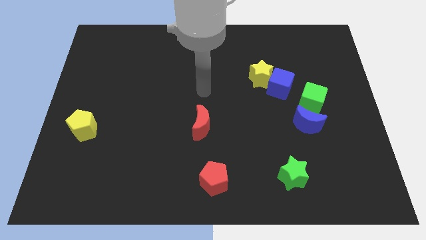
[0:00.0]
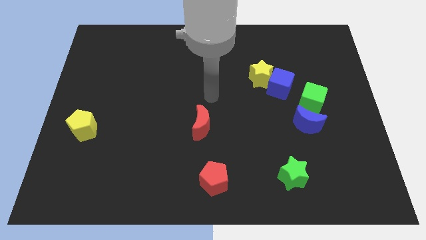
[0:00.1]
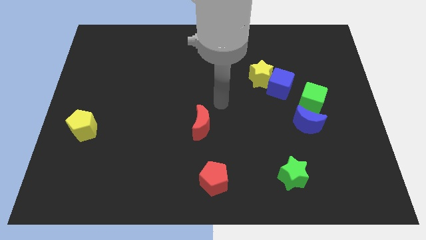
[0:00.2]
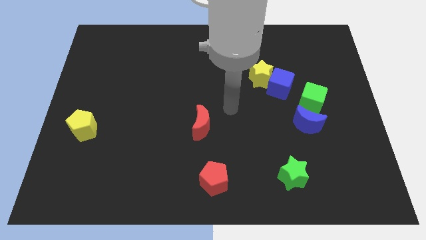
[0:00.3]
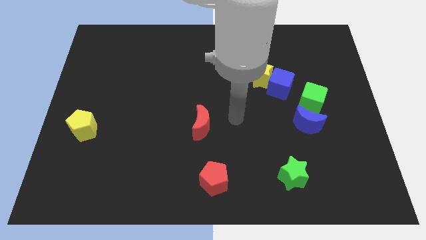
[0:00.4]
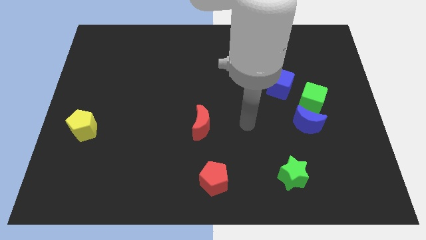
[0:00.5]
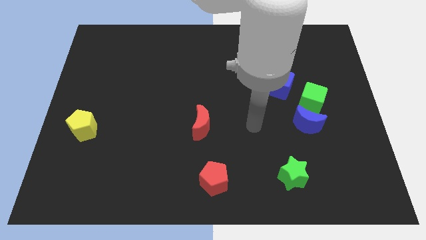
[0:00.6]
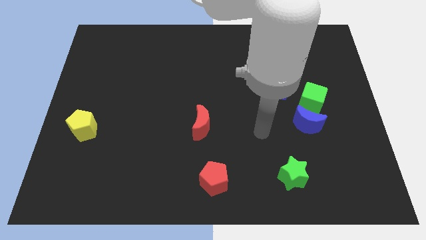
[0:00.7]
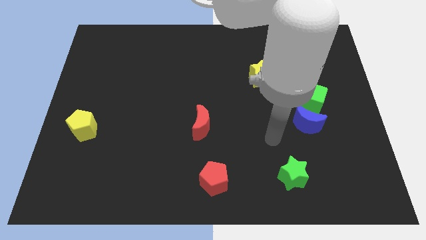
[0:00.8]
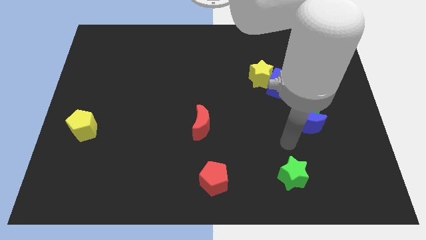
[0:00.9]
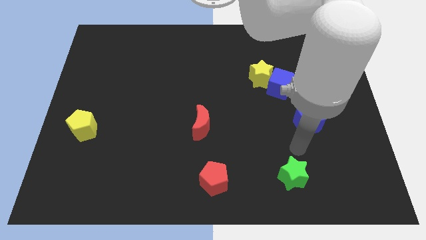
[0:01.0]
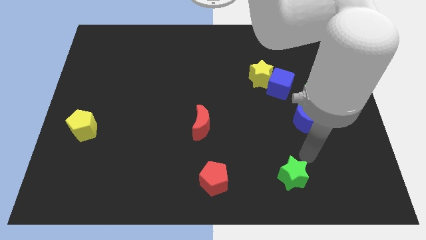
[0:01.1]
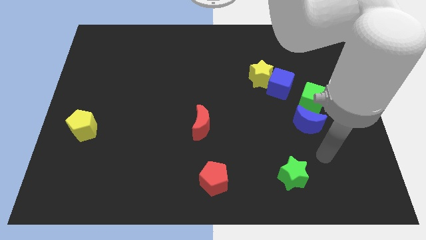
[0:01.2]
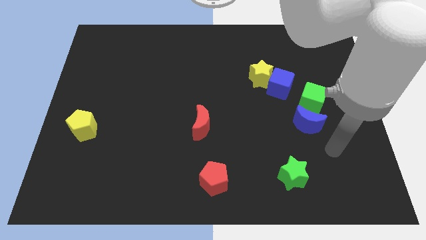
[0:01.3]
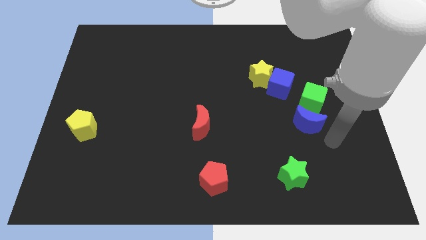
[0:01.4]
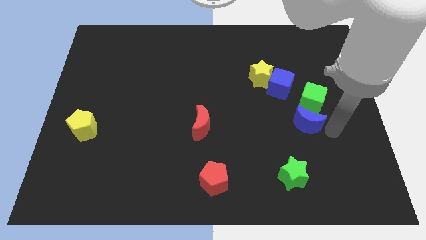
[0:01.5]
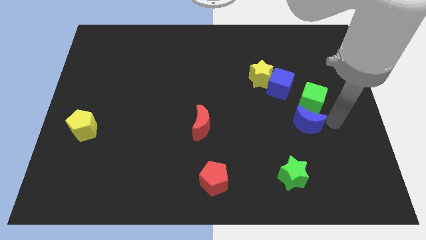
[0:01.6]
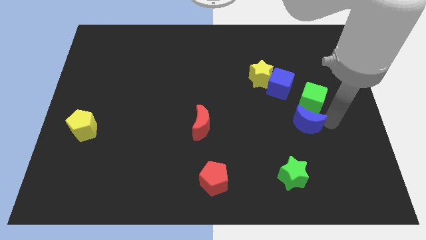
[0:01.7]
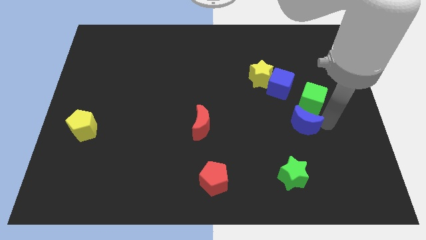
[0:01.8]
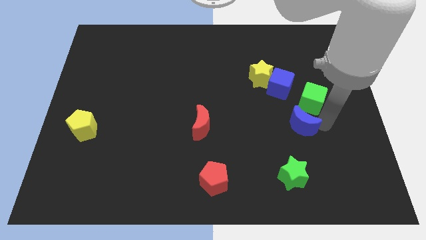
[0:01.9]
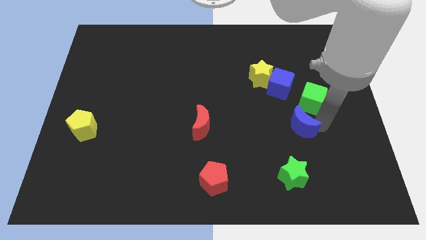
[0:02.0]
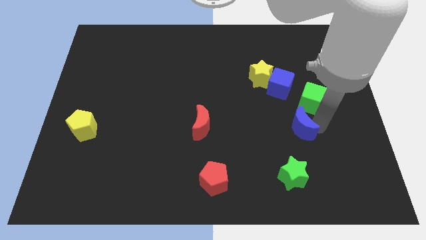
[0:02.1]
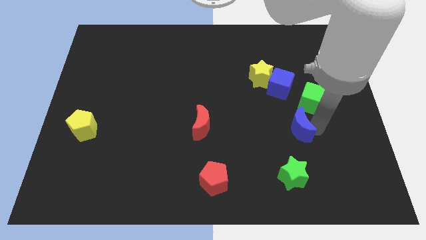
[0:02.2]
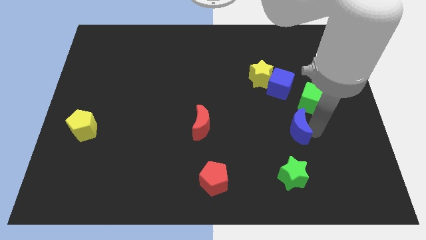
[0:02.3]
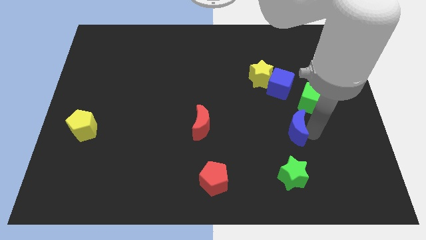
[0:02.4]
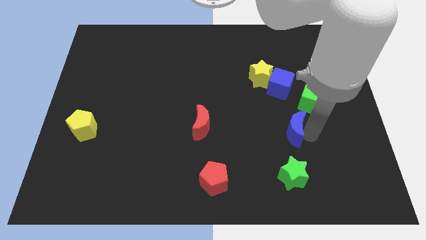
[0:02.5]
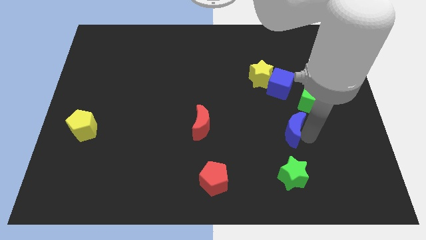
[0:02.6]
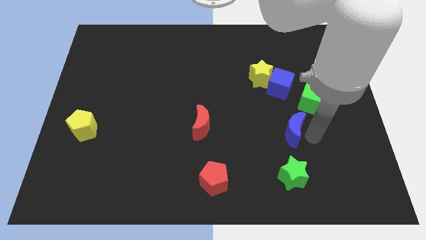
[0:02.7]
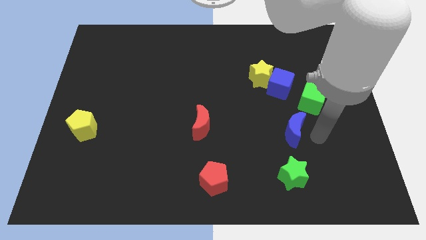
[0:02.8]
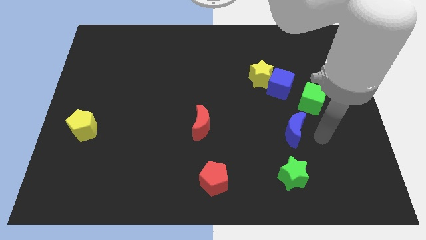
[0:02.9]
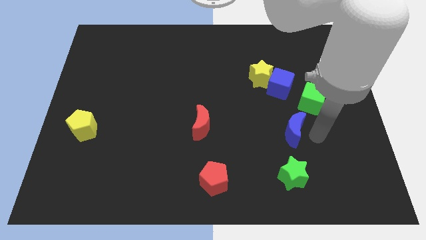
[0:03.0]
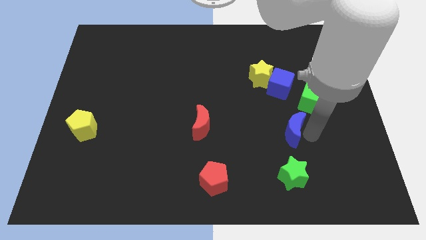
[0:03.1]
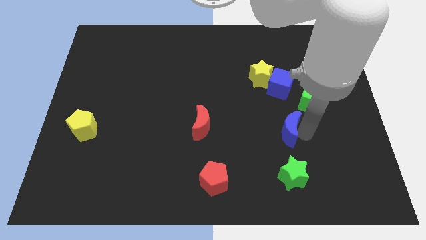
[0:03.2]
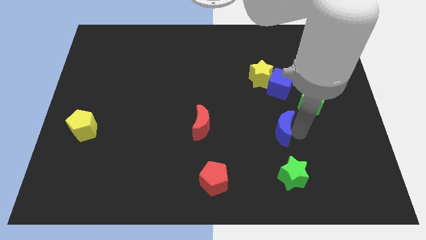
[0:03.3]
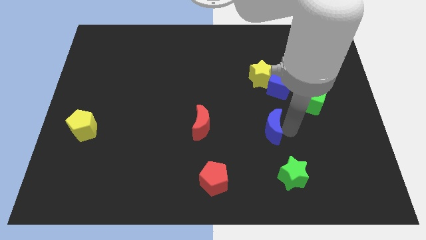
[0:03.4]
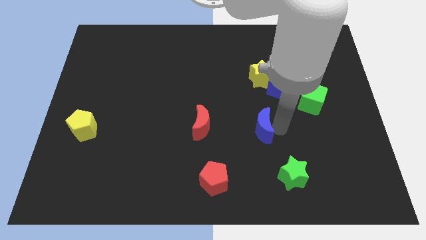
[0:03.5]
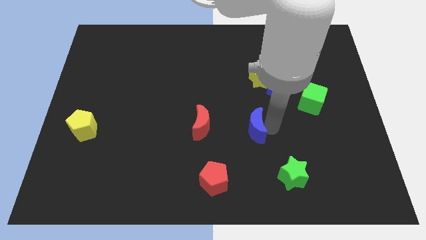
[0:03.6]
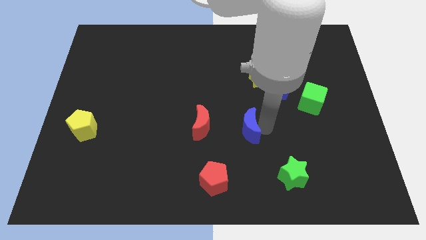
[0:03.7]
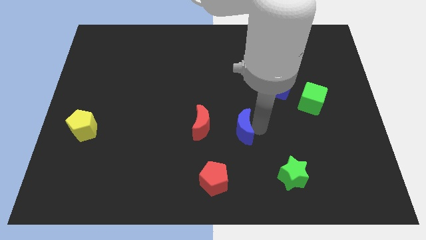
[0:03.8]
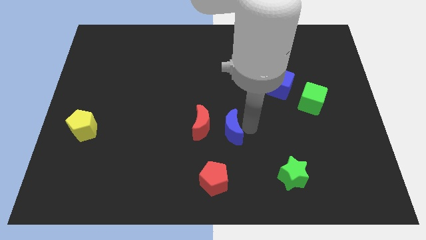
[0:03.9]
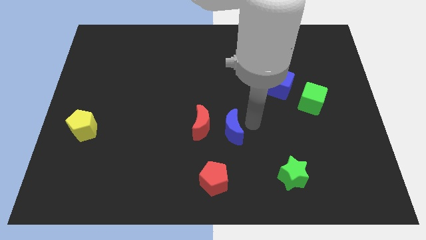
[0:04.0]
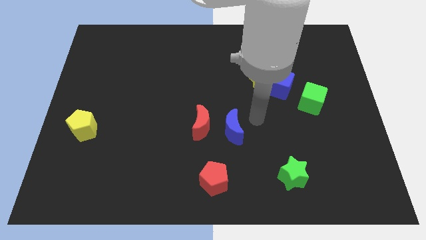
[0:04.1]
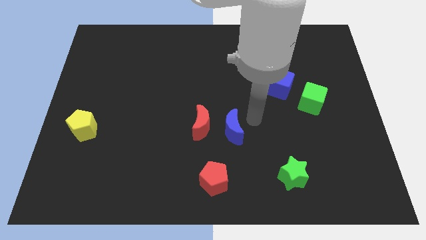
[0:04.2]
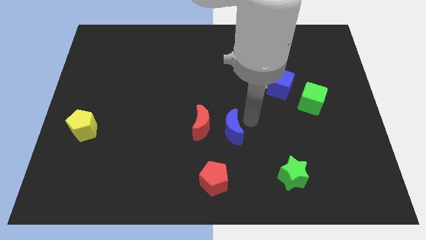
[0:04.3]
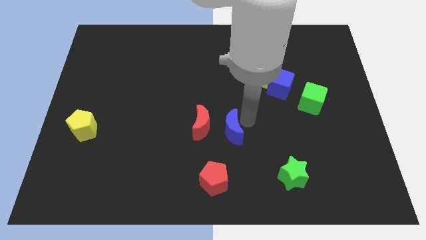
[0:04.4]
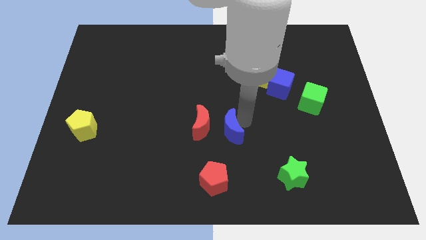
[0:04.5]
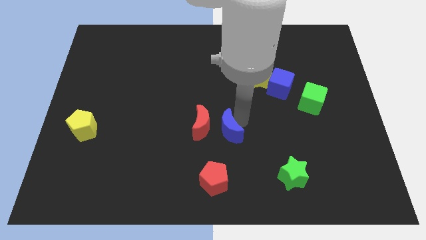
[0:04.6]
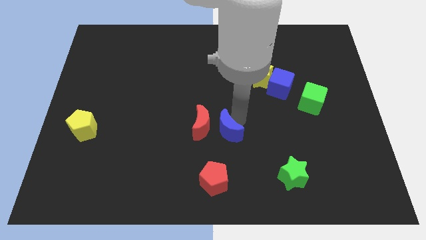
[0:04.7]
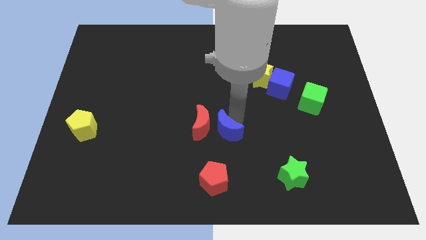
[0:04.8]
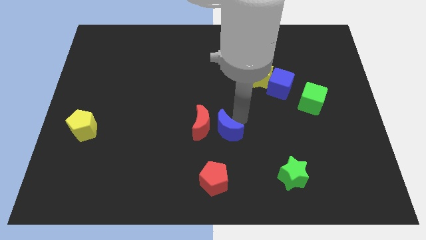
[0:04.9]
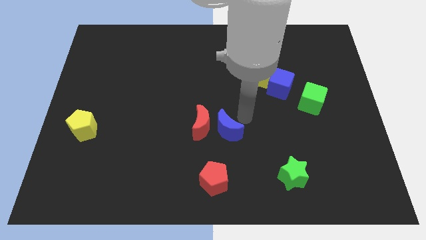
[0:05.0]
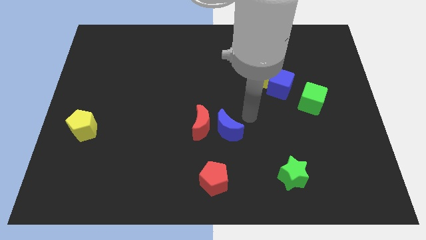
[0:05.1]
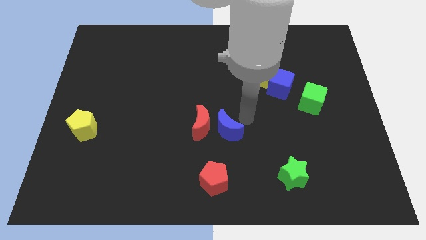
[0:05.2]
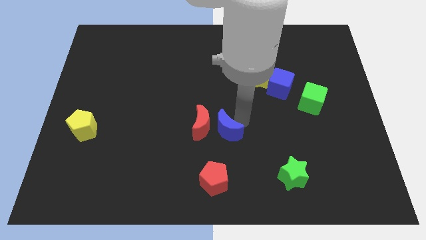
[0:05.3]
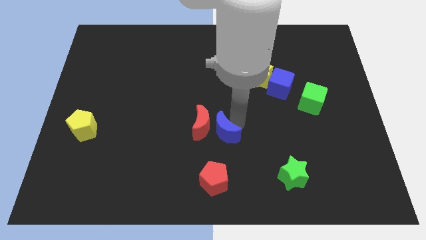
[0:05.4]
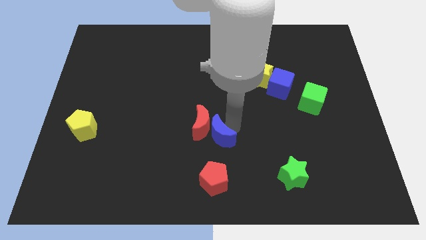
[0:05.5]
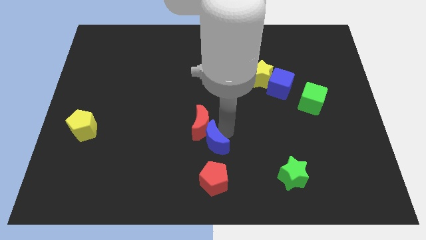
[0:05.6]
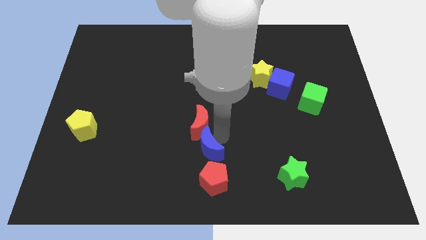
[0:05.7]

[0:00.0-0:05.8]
push the blue moon to the top left of the red pentagon

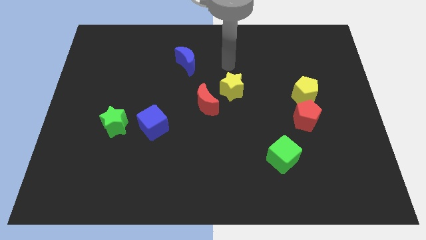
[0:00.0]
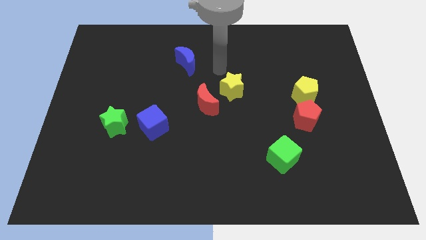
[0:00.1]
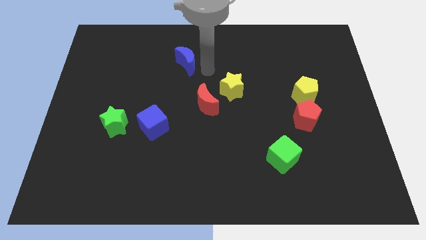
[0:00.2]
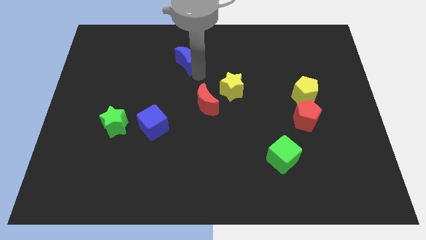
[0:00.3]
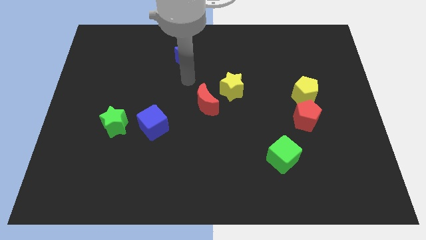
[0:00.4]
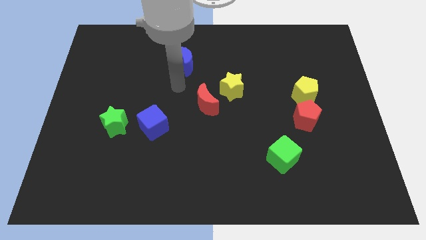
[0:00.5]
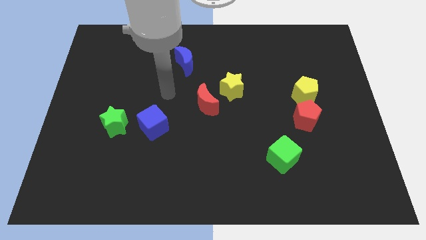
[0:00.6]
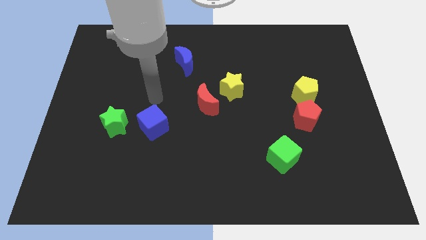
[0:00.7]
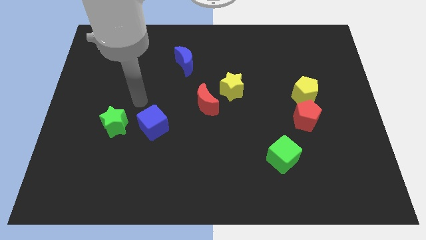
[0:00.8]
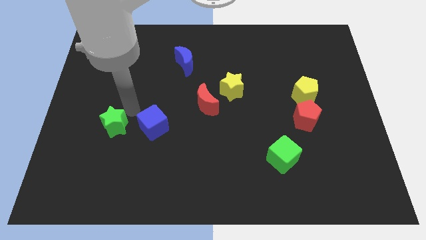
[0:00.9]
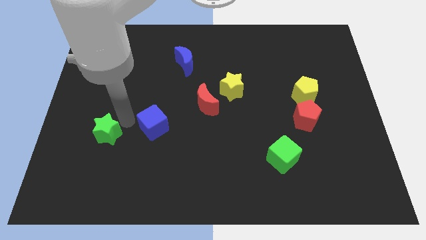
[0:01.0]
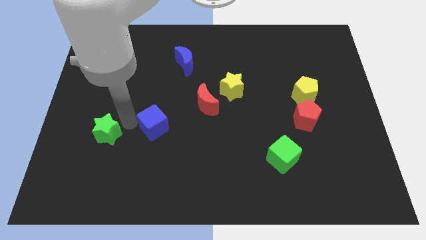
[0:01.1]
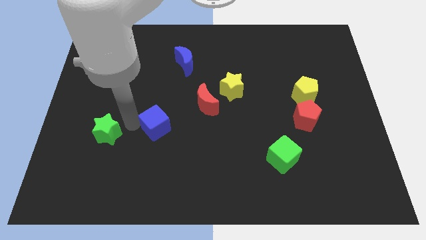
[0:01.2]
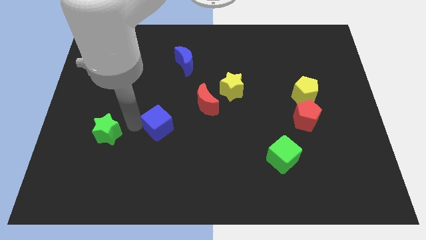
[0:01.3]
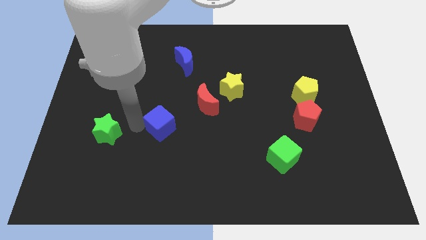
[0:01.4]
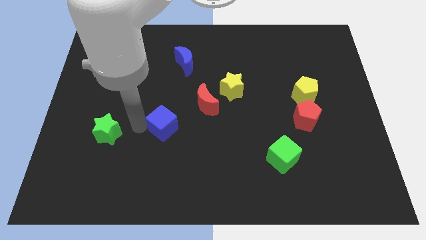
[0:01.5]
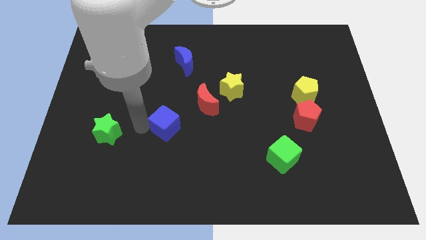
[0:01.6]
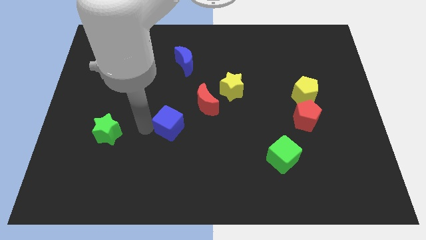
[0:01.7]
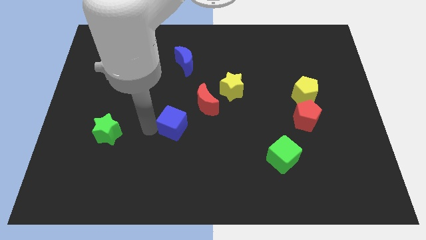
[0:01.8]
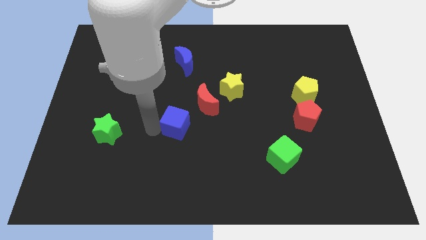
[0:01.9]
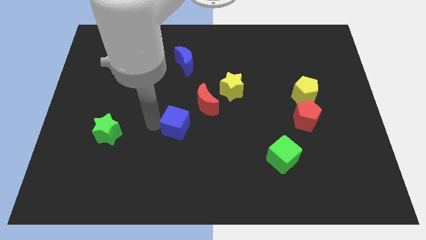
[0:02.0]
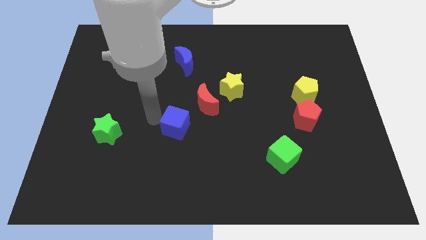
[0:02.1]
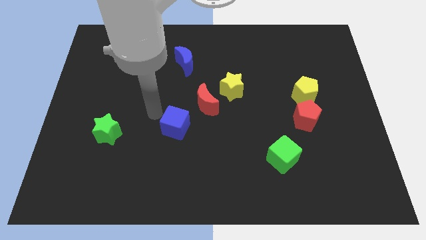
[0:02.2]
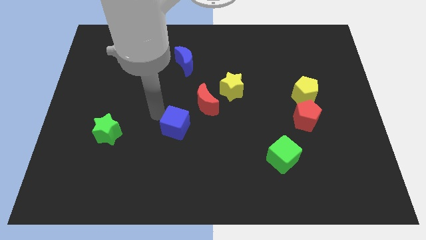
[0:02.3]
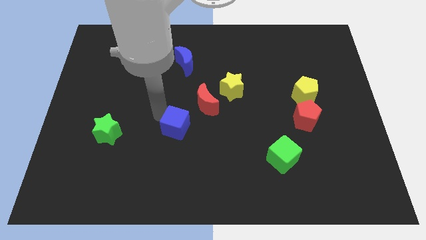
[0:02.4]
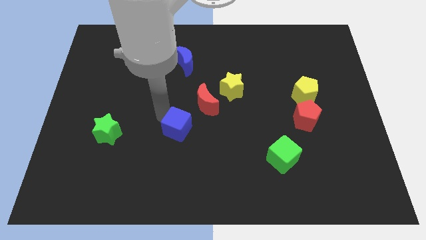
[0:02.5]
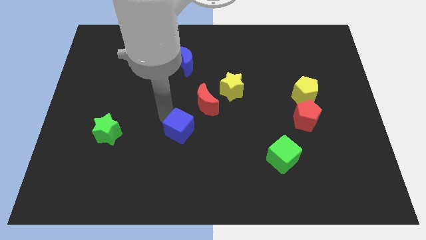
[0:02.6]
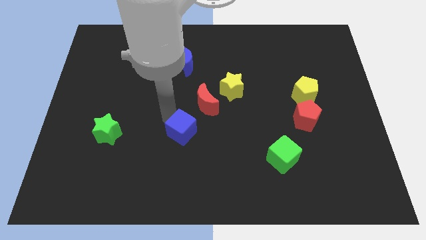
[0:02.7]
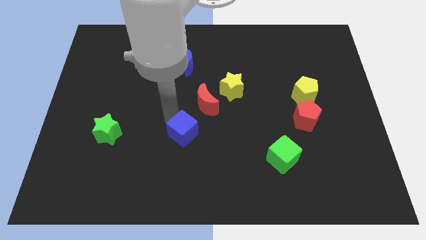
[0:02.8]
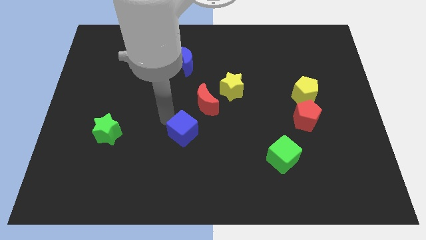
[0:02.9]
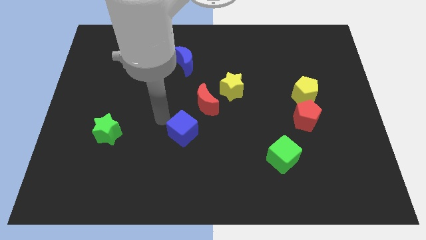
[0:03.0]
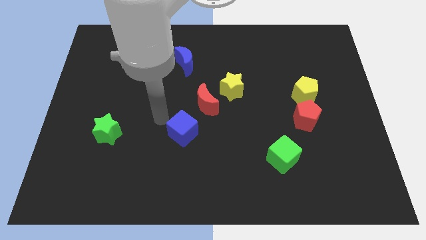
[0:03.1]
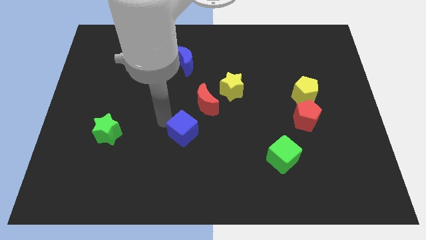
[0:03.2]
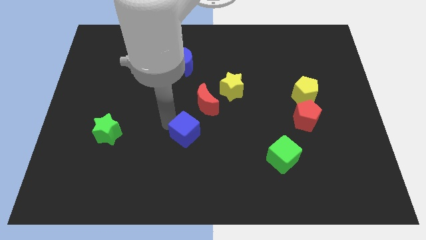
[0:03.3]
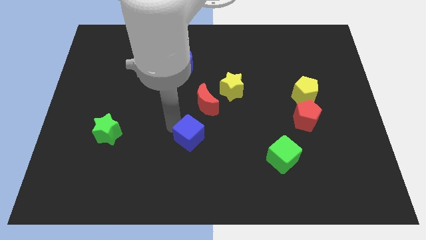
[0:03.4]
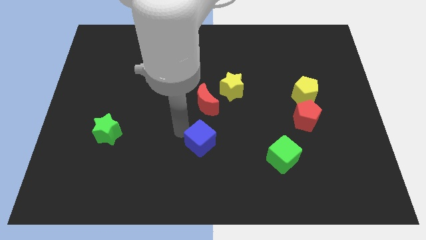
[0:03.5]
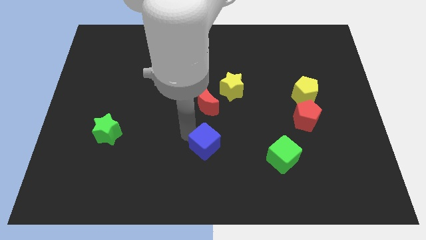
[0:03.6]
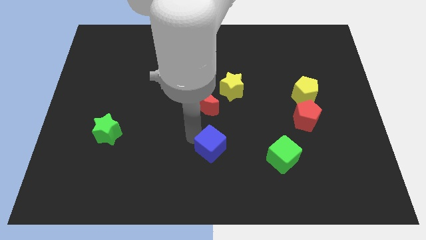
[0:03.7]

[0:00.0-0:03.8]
push the blue cube just left of the green cube
